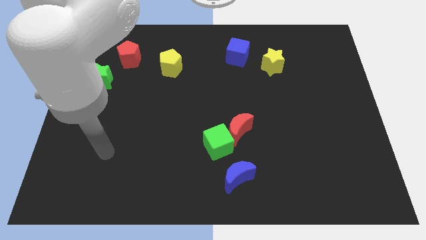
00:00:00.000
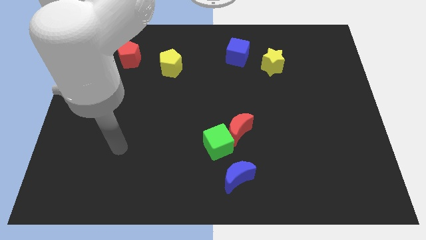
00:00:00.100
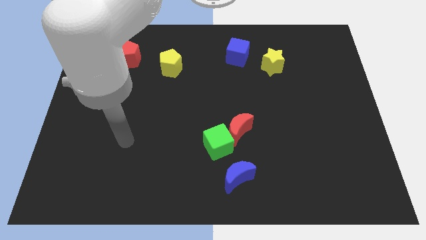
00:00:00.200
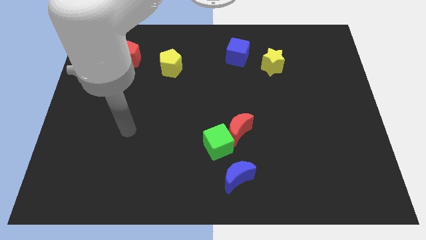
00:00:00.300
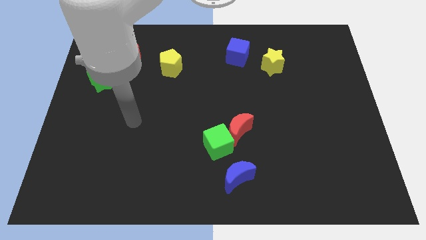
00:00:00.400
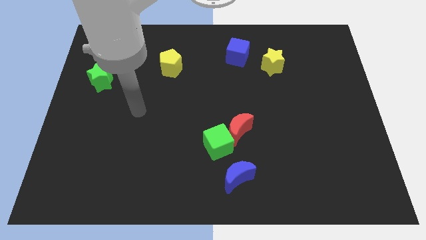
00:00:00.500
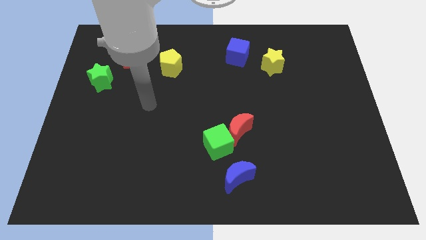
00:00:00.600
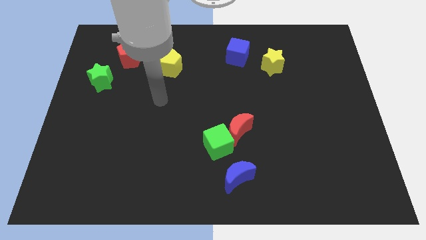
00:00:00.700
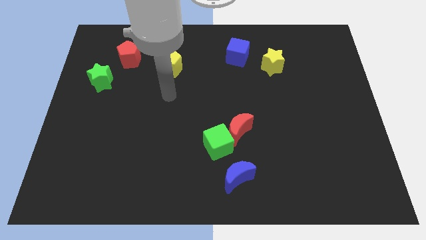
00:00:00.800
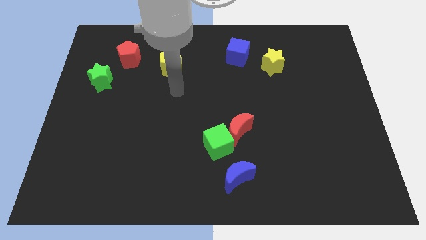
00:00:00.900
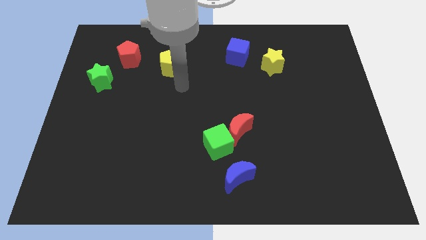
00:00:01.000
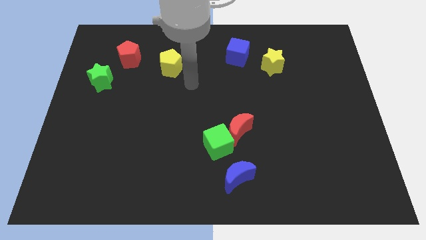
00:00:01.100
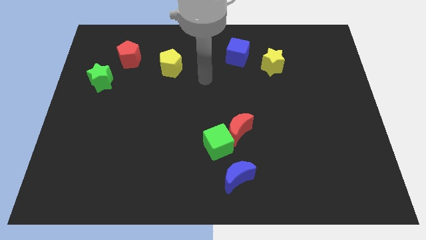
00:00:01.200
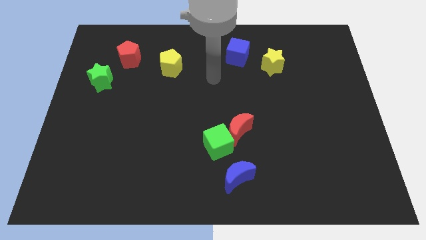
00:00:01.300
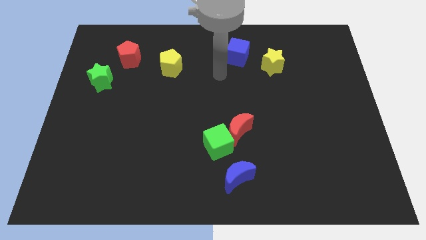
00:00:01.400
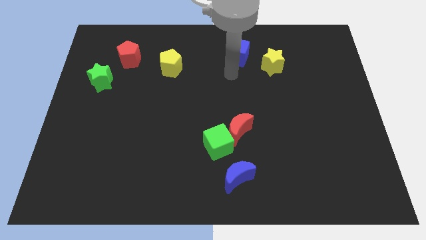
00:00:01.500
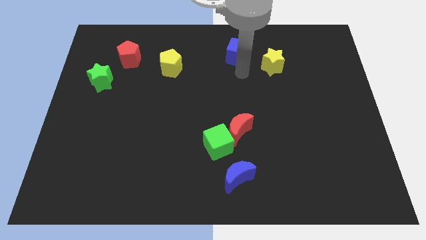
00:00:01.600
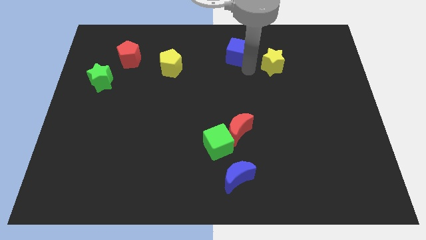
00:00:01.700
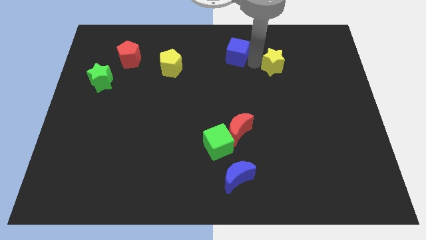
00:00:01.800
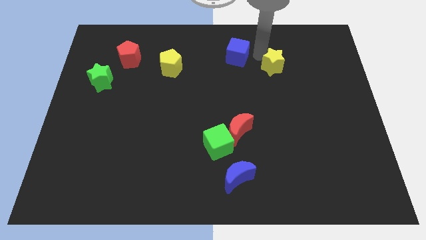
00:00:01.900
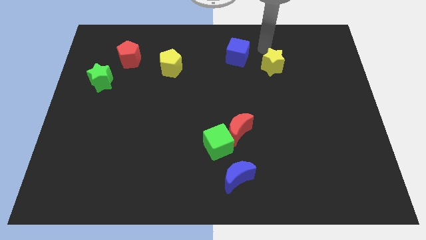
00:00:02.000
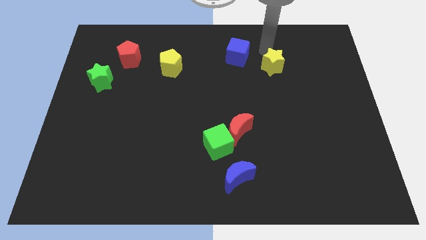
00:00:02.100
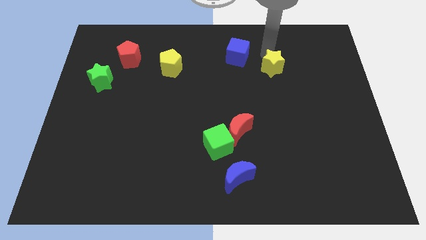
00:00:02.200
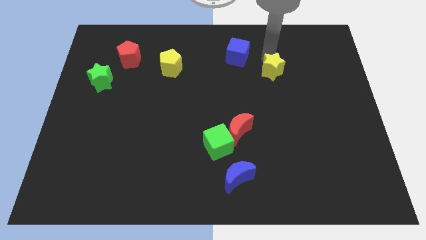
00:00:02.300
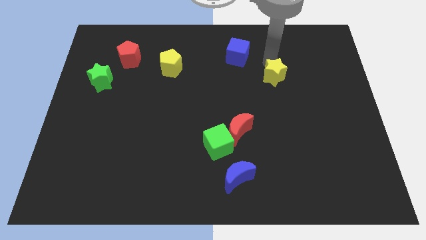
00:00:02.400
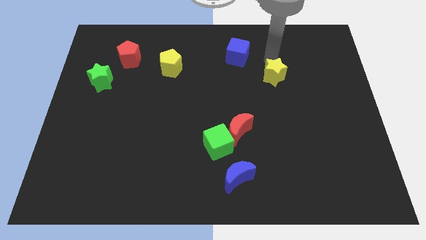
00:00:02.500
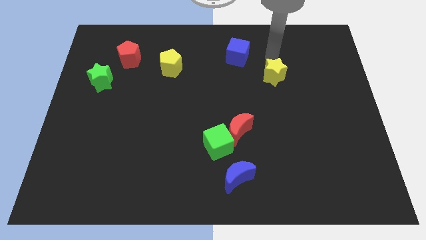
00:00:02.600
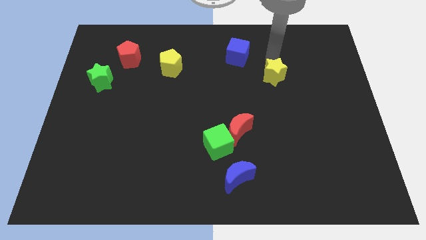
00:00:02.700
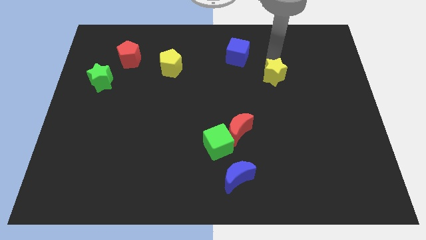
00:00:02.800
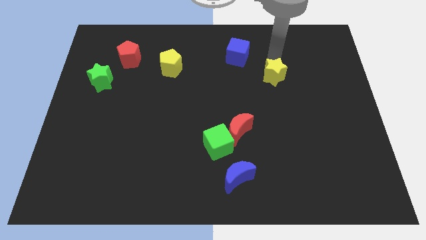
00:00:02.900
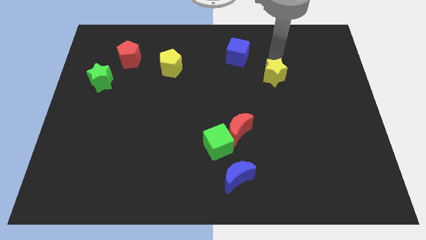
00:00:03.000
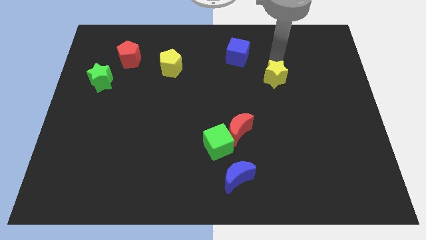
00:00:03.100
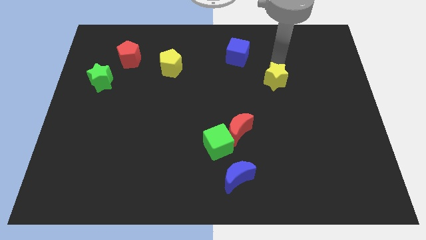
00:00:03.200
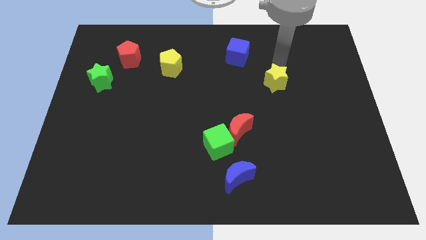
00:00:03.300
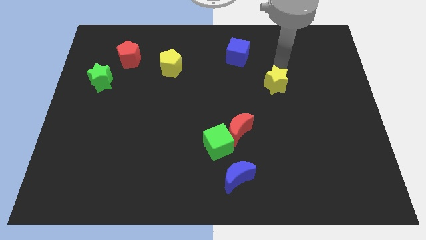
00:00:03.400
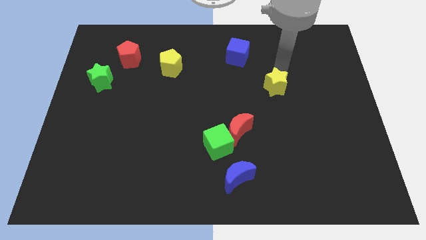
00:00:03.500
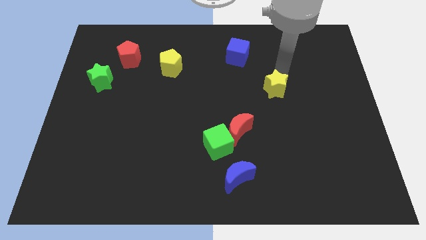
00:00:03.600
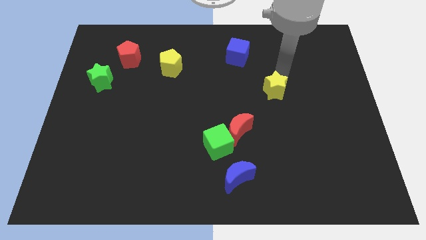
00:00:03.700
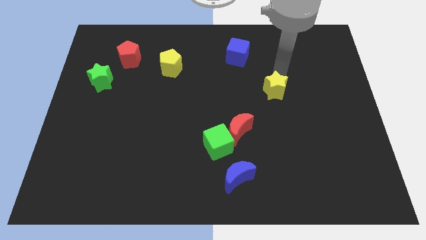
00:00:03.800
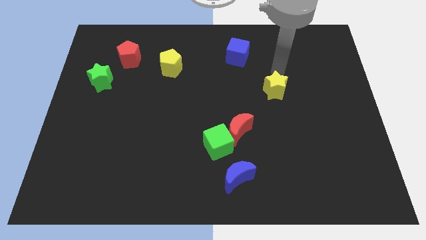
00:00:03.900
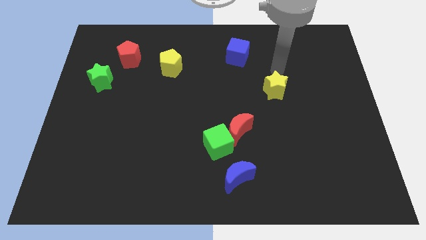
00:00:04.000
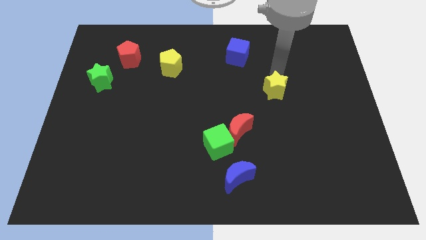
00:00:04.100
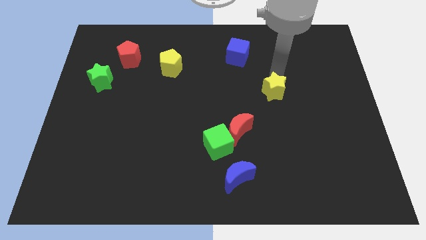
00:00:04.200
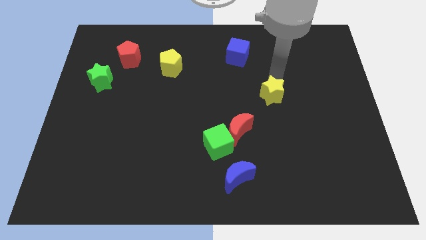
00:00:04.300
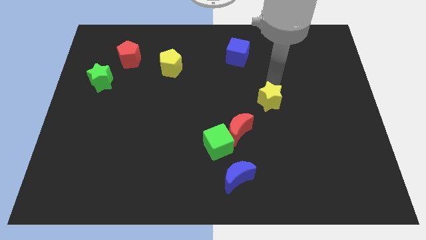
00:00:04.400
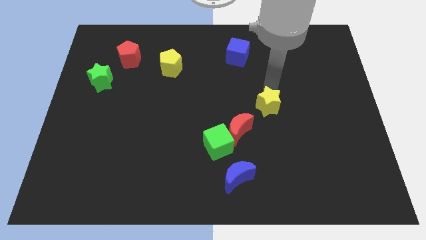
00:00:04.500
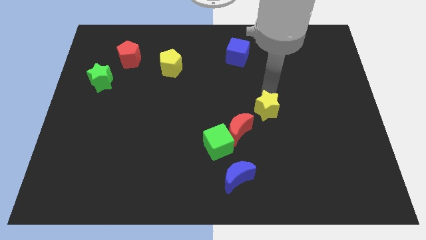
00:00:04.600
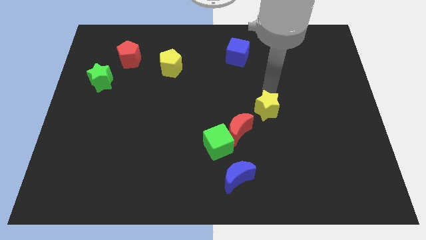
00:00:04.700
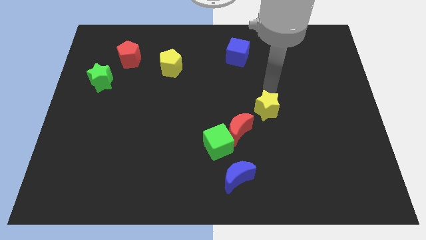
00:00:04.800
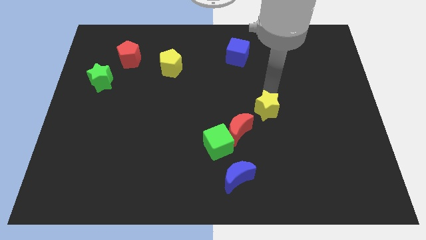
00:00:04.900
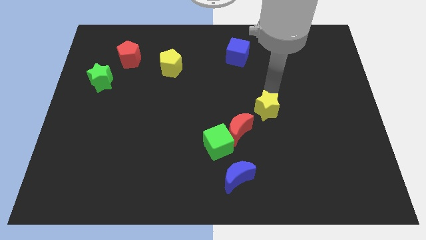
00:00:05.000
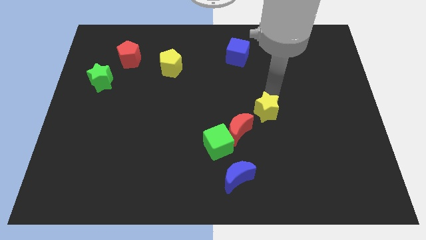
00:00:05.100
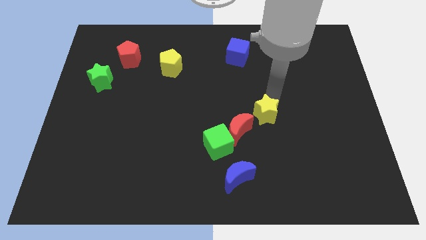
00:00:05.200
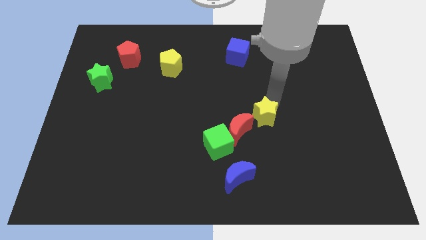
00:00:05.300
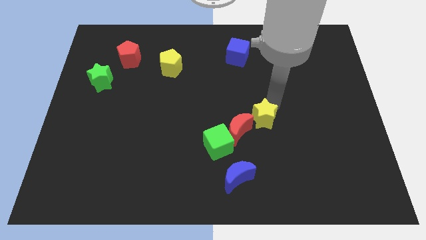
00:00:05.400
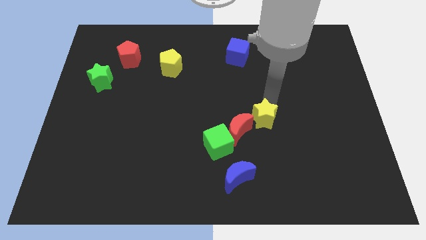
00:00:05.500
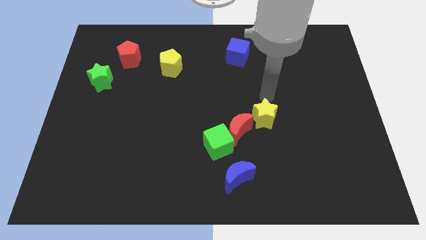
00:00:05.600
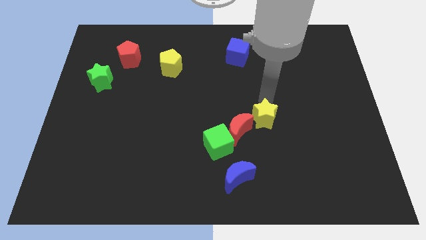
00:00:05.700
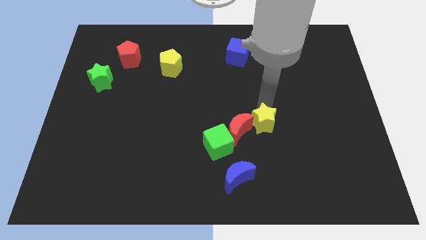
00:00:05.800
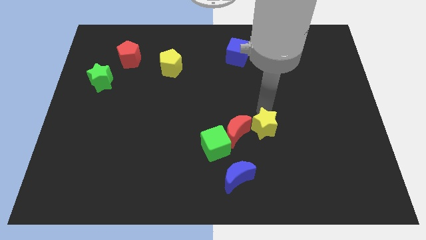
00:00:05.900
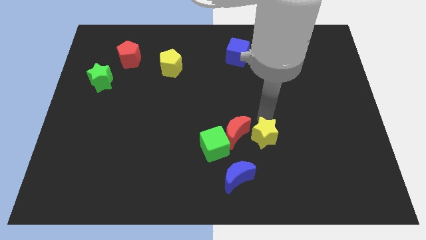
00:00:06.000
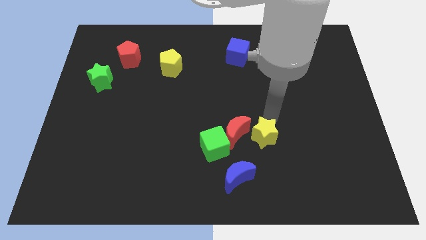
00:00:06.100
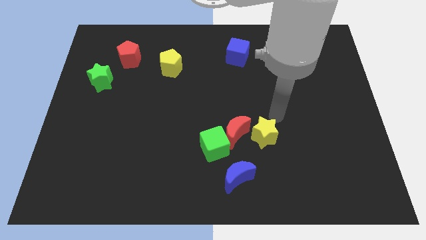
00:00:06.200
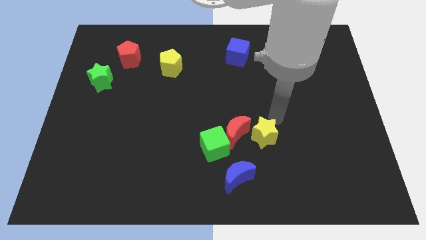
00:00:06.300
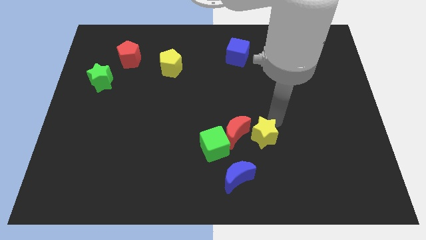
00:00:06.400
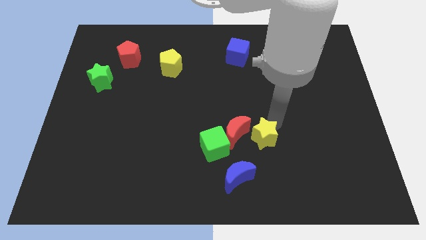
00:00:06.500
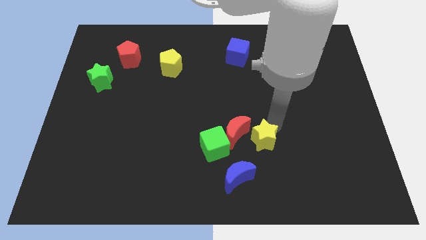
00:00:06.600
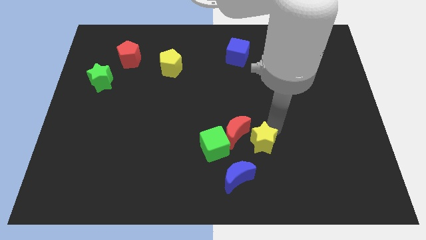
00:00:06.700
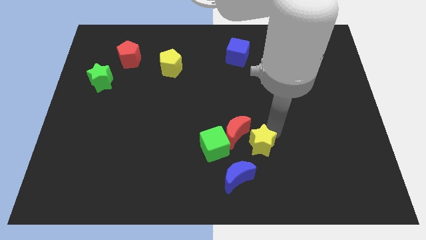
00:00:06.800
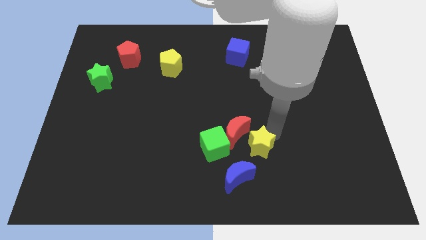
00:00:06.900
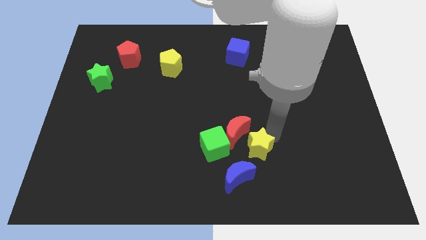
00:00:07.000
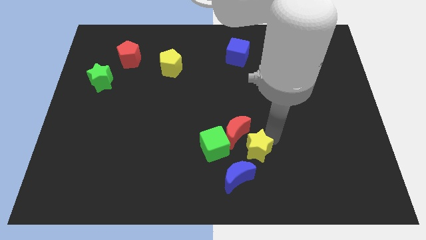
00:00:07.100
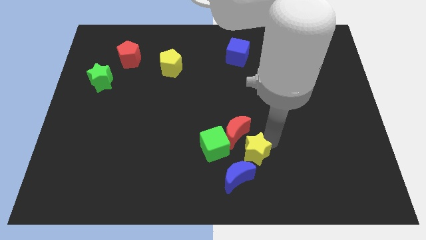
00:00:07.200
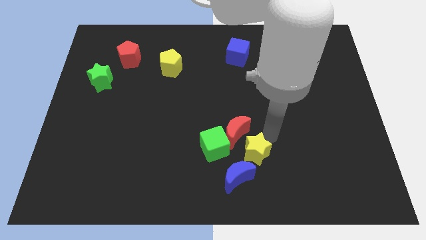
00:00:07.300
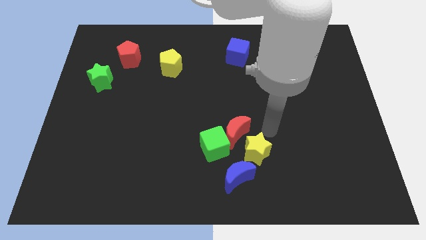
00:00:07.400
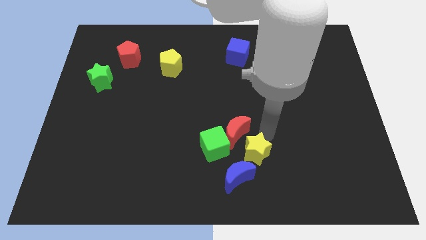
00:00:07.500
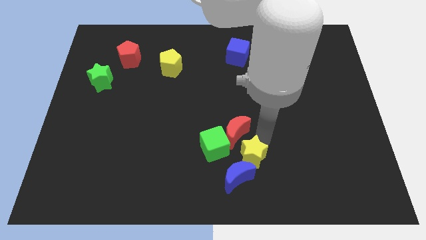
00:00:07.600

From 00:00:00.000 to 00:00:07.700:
push the yellow star close to the blue moon
